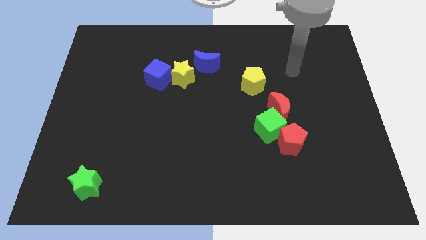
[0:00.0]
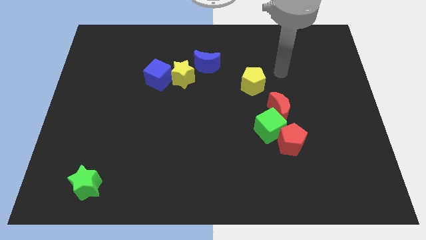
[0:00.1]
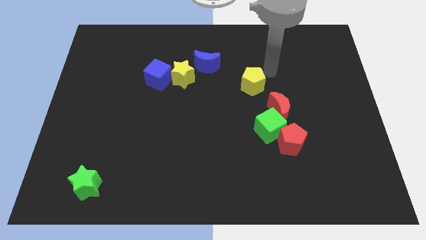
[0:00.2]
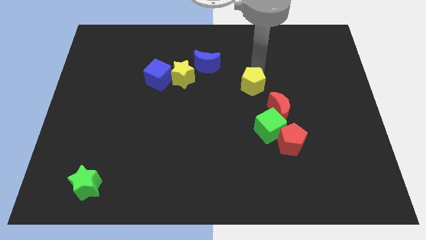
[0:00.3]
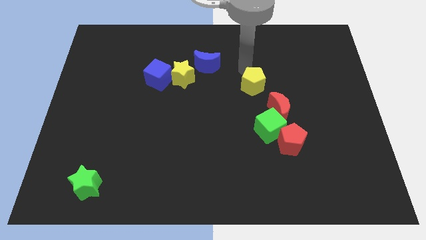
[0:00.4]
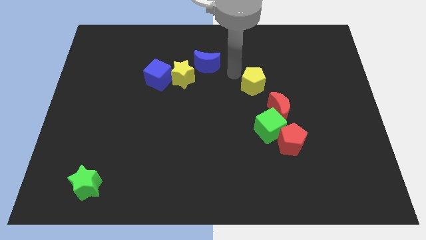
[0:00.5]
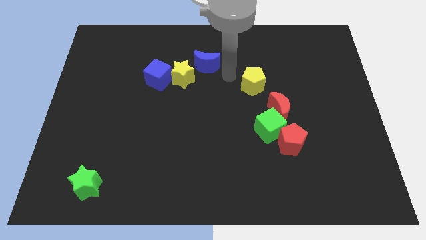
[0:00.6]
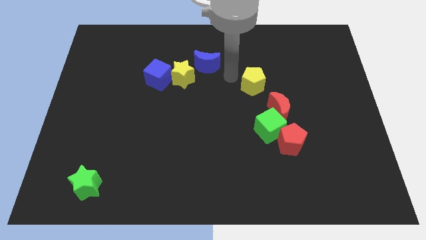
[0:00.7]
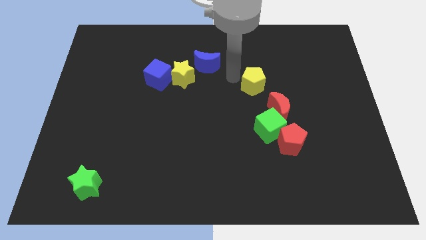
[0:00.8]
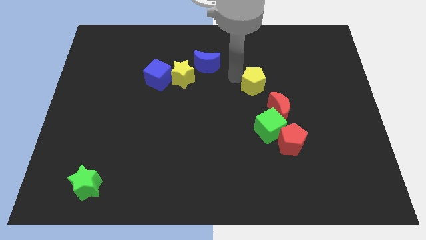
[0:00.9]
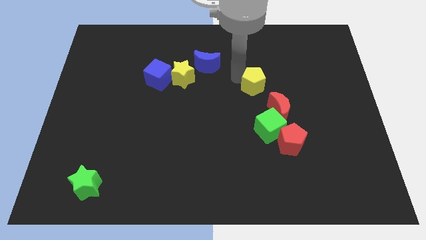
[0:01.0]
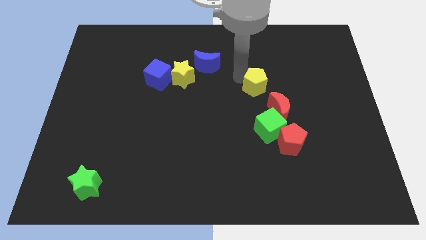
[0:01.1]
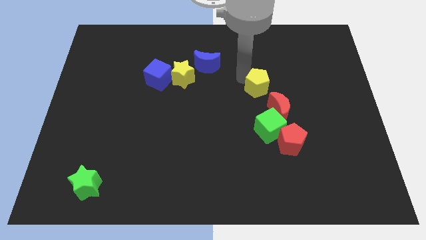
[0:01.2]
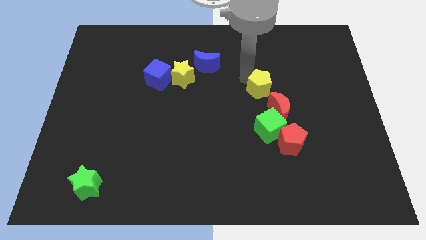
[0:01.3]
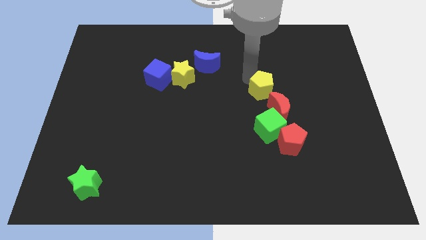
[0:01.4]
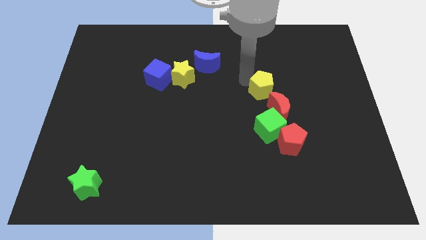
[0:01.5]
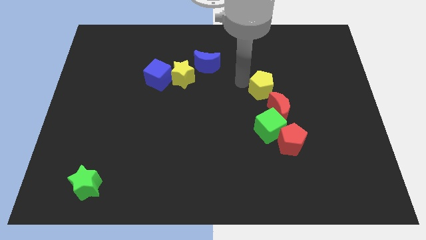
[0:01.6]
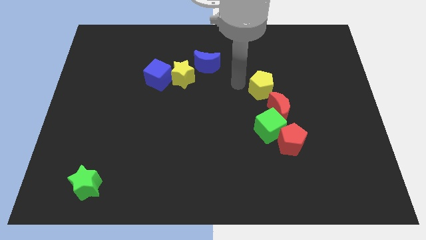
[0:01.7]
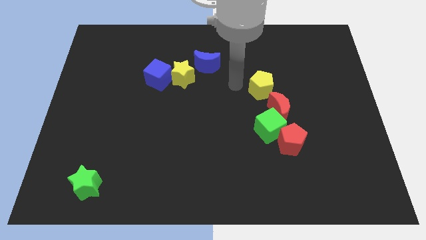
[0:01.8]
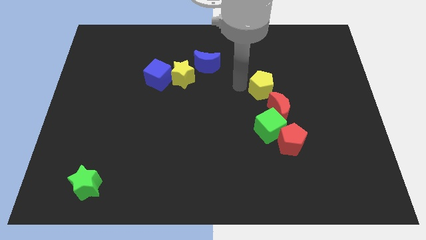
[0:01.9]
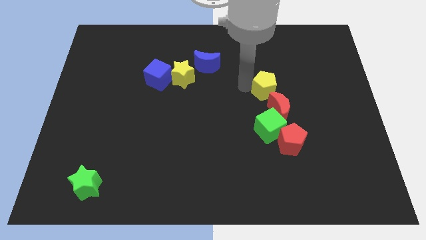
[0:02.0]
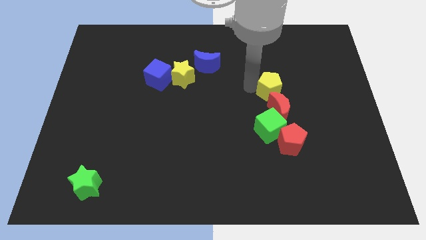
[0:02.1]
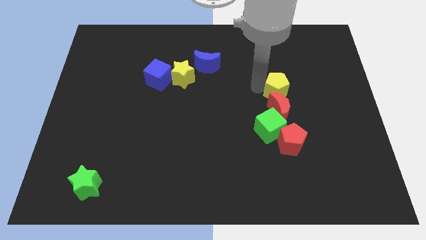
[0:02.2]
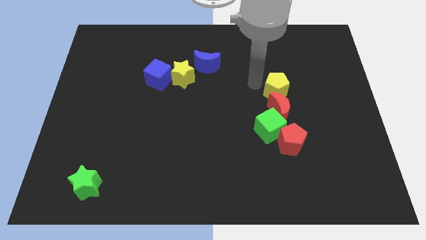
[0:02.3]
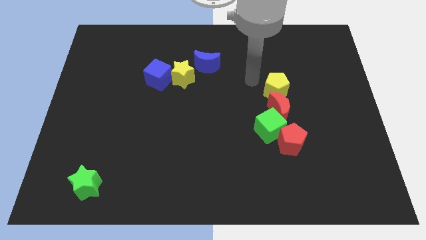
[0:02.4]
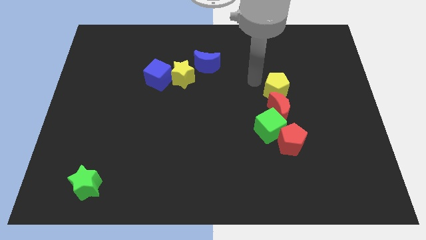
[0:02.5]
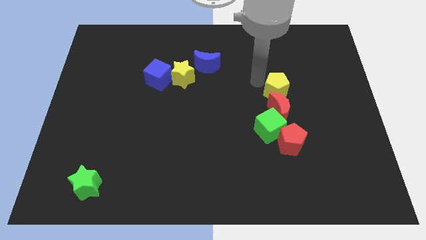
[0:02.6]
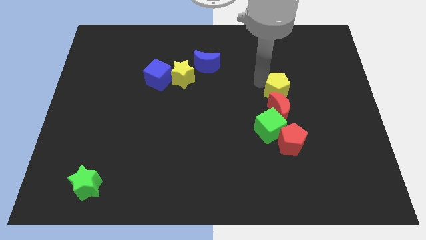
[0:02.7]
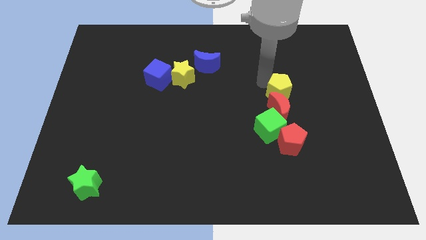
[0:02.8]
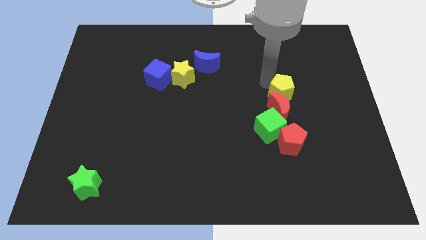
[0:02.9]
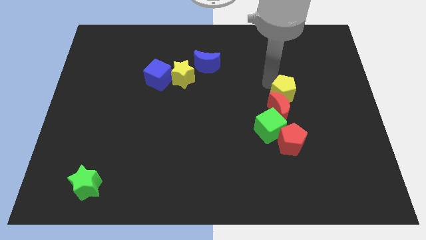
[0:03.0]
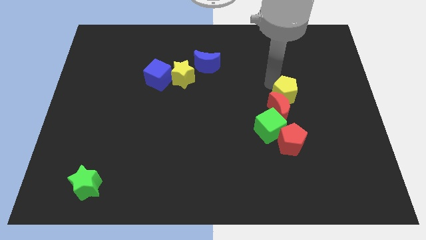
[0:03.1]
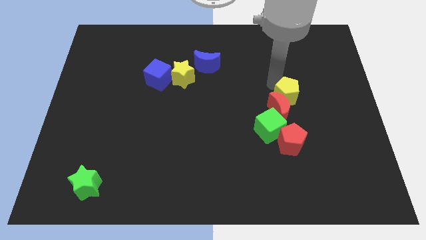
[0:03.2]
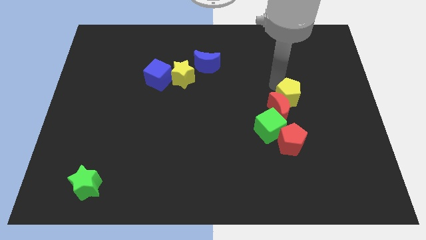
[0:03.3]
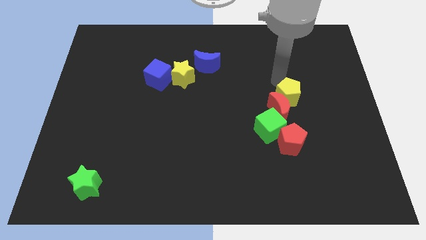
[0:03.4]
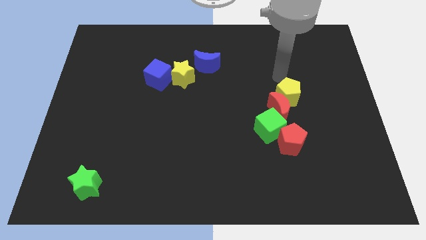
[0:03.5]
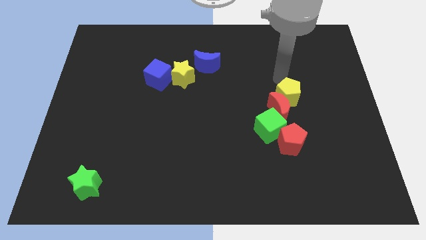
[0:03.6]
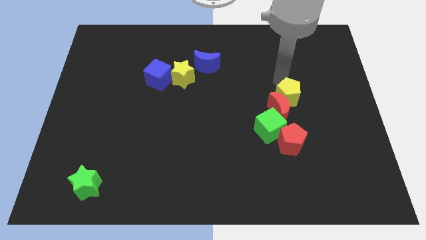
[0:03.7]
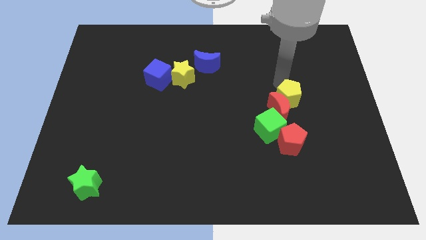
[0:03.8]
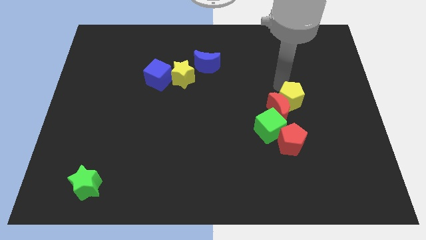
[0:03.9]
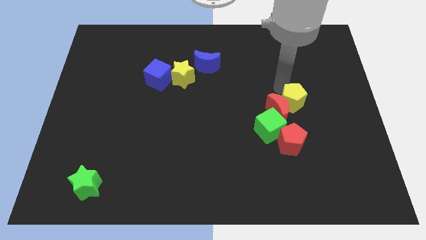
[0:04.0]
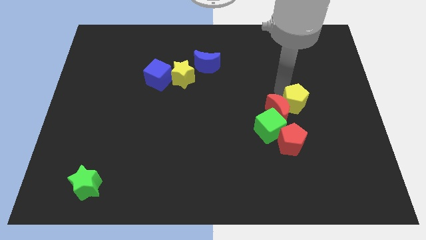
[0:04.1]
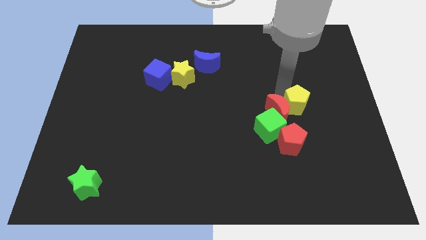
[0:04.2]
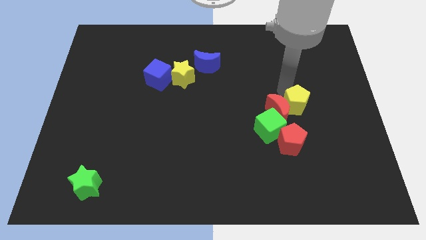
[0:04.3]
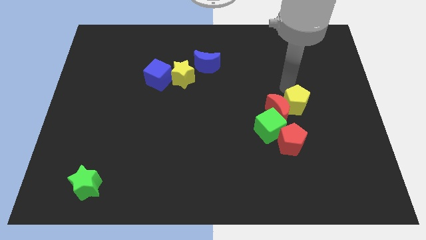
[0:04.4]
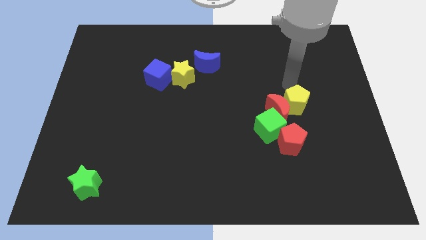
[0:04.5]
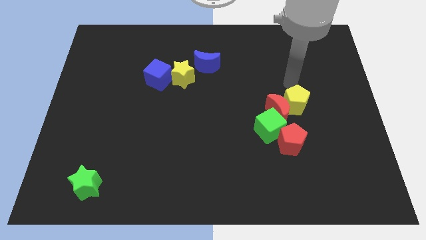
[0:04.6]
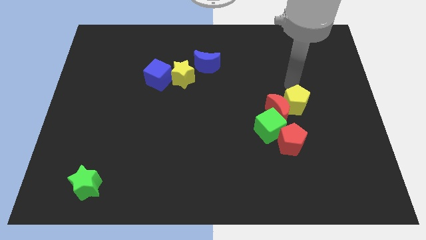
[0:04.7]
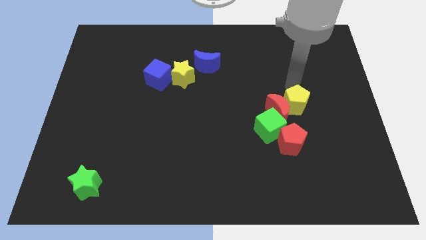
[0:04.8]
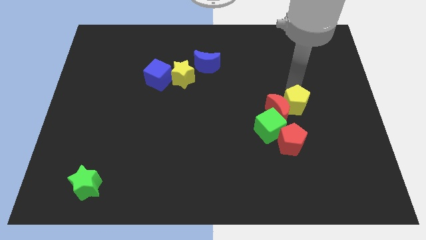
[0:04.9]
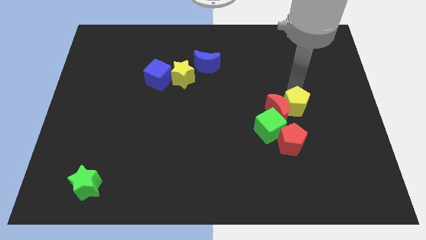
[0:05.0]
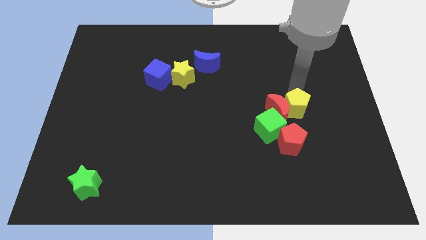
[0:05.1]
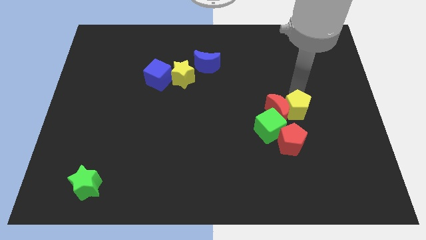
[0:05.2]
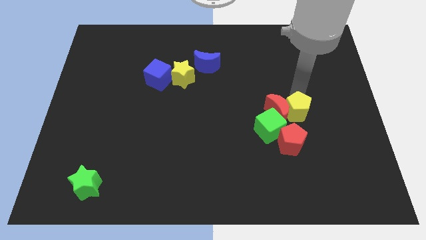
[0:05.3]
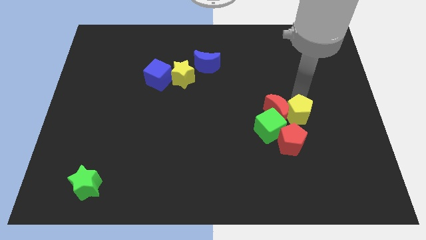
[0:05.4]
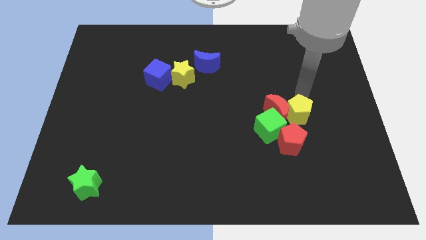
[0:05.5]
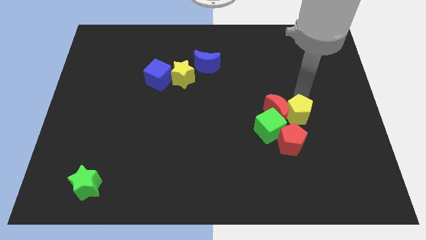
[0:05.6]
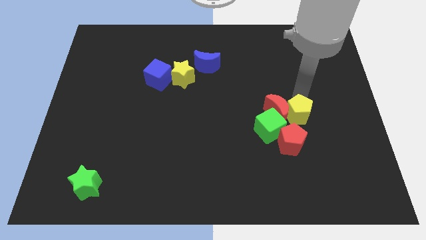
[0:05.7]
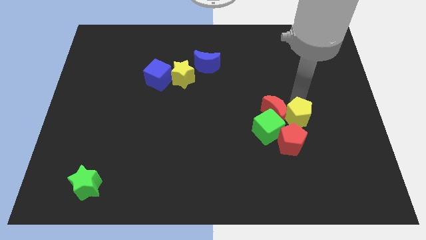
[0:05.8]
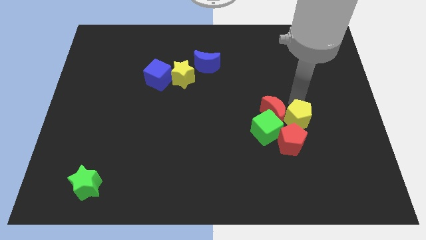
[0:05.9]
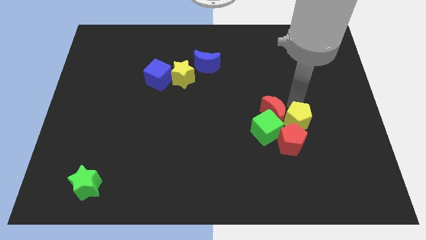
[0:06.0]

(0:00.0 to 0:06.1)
move the yellow pentagon close to the red pentagon

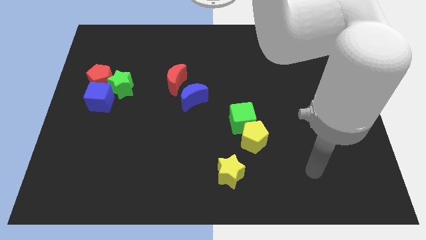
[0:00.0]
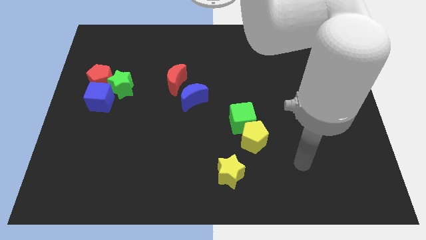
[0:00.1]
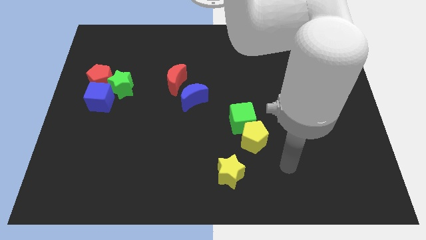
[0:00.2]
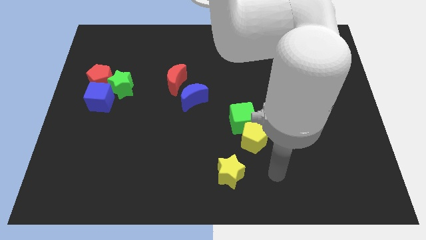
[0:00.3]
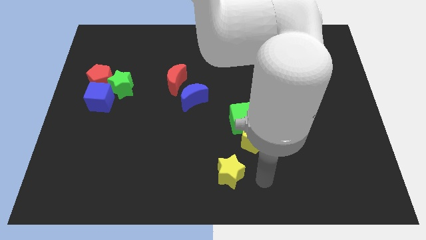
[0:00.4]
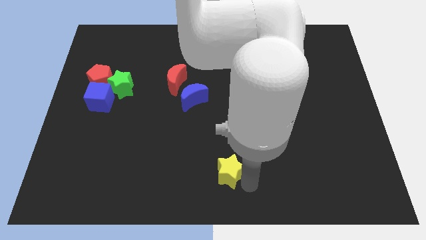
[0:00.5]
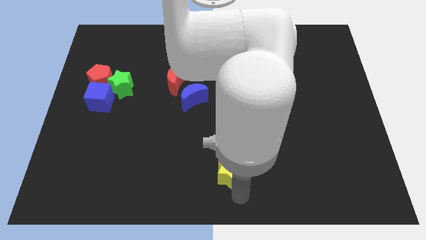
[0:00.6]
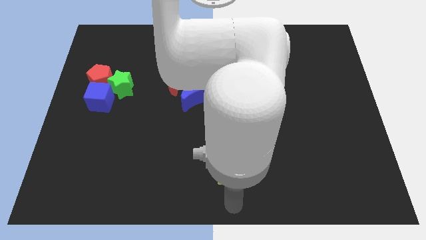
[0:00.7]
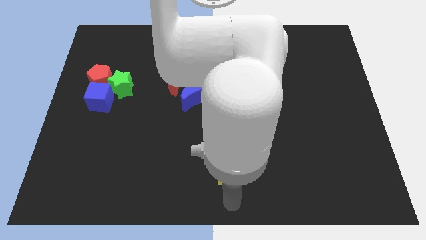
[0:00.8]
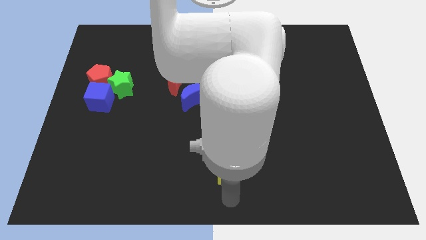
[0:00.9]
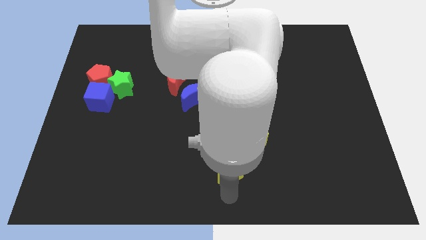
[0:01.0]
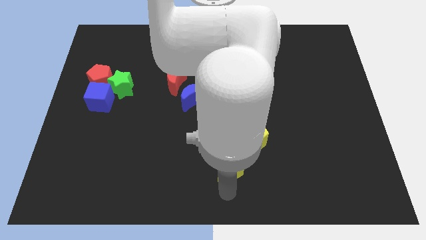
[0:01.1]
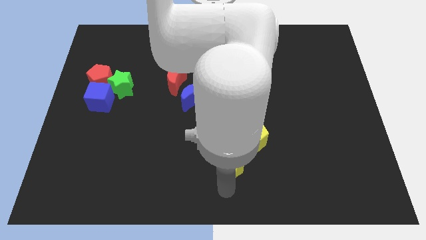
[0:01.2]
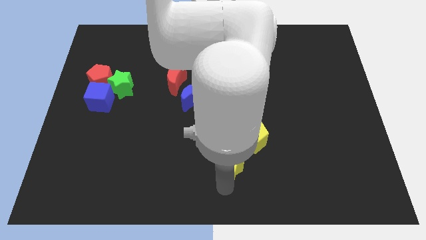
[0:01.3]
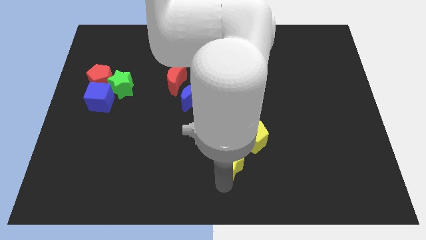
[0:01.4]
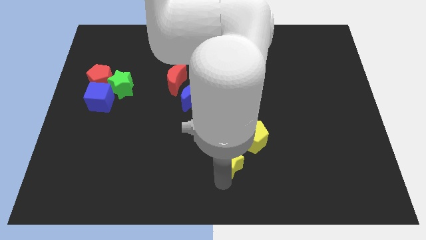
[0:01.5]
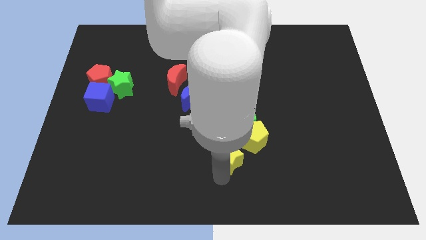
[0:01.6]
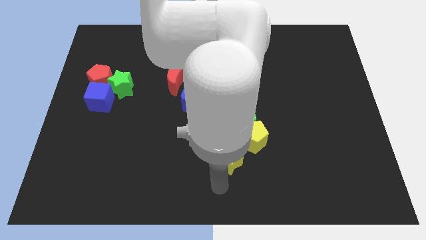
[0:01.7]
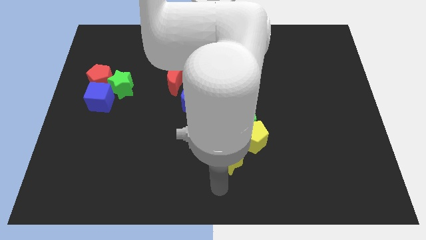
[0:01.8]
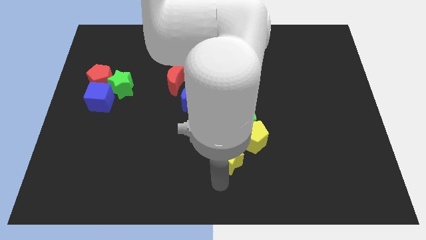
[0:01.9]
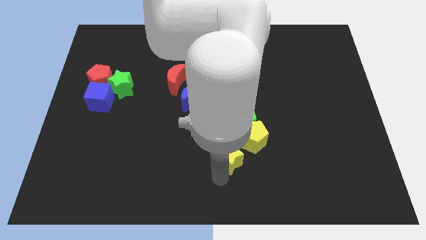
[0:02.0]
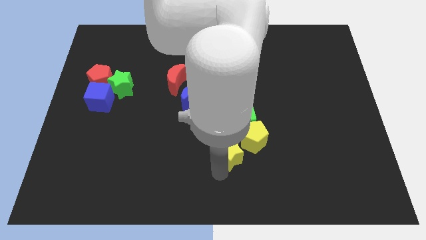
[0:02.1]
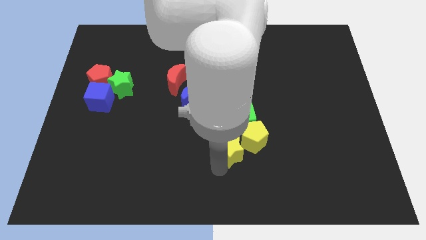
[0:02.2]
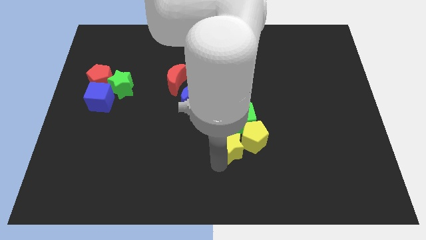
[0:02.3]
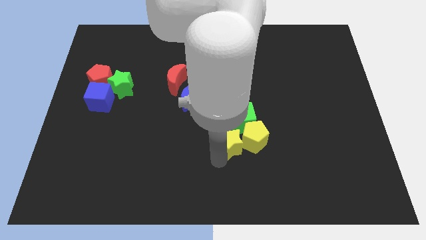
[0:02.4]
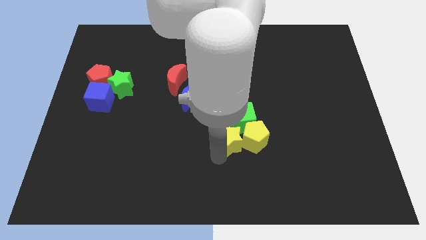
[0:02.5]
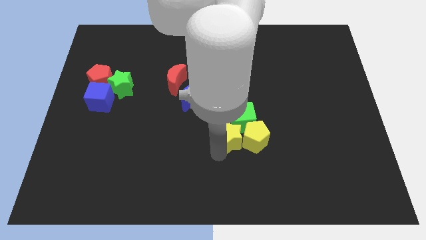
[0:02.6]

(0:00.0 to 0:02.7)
push the yellow star close to the green cube
